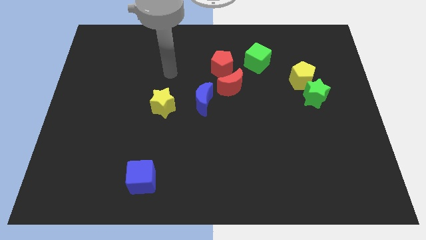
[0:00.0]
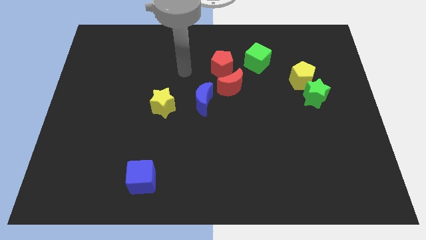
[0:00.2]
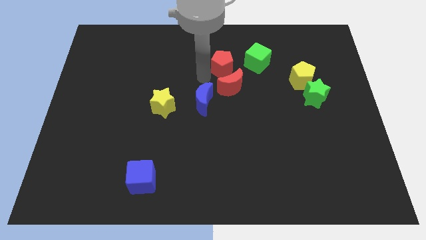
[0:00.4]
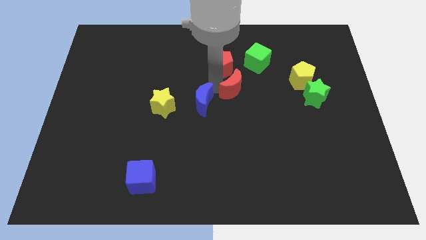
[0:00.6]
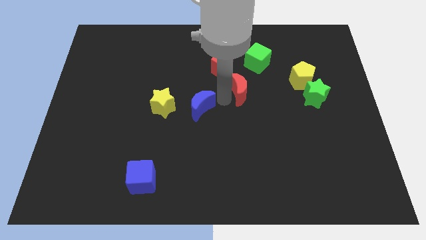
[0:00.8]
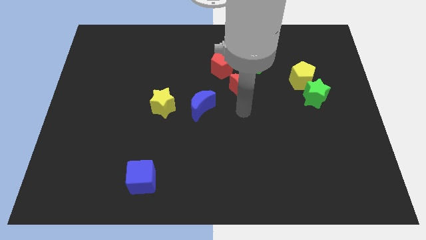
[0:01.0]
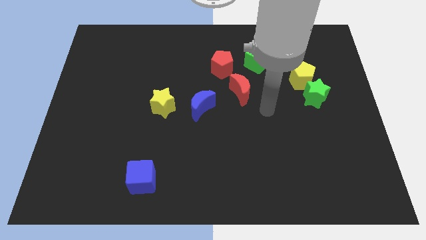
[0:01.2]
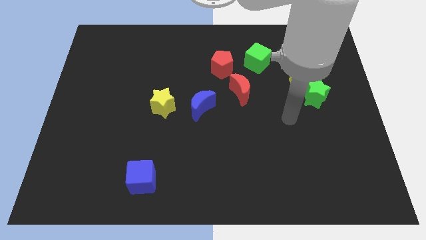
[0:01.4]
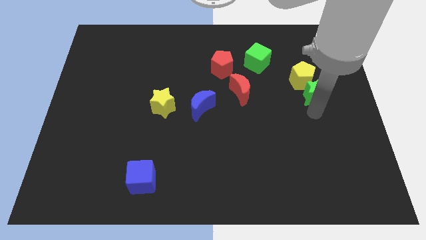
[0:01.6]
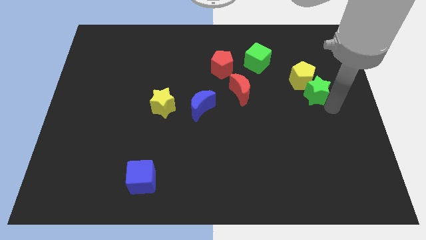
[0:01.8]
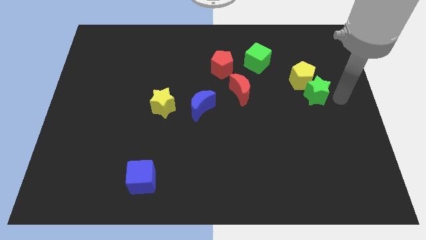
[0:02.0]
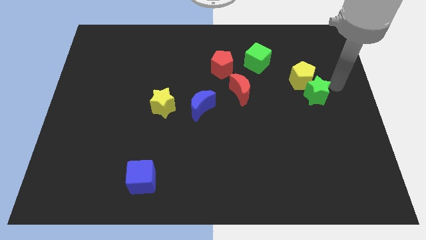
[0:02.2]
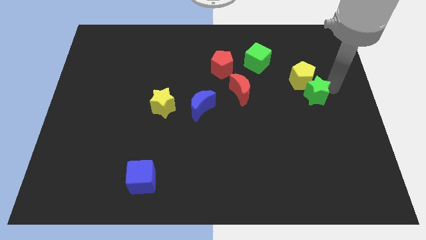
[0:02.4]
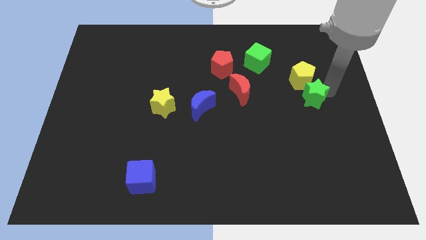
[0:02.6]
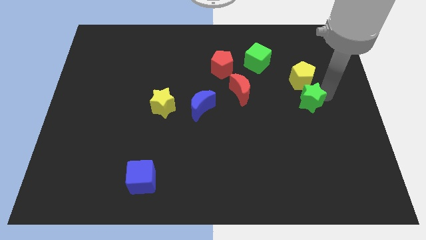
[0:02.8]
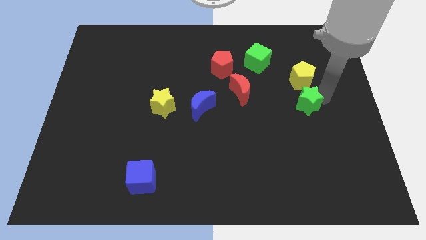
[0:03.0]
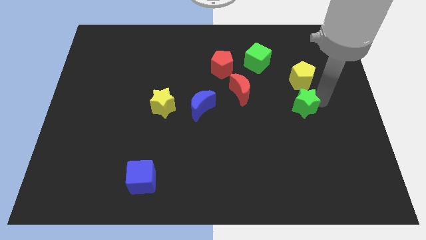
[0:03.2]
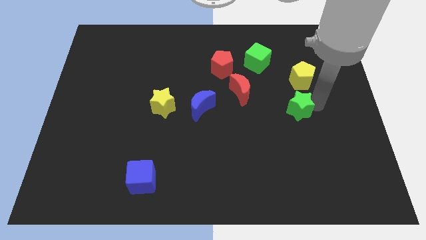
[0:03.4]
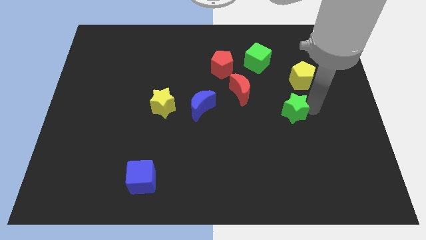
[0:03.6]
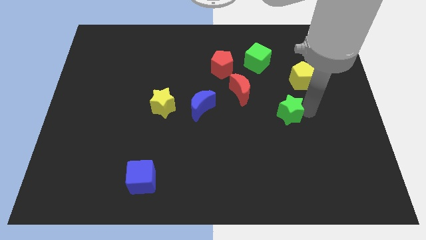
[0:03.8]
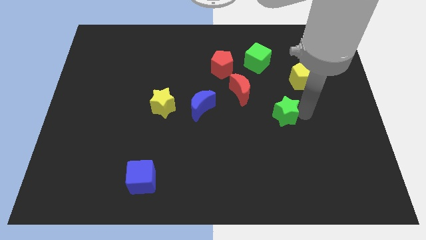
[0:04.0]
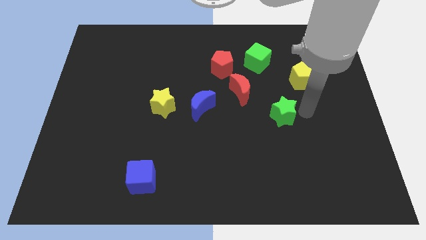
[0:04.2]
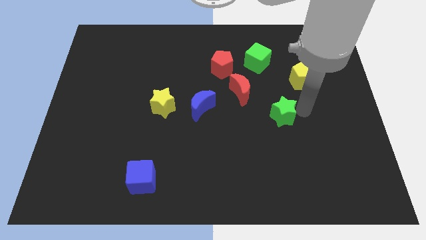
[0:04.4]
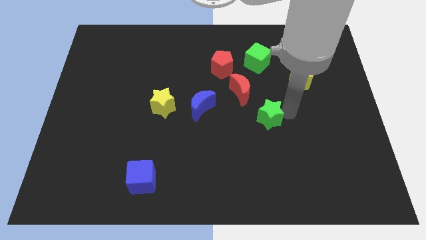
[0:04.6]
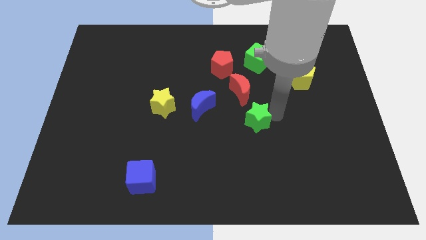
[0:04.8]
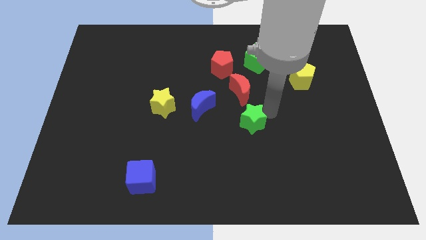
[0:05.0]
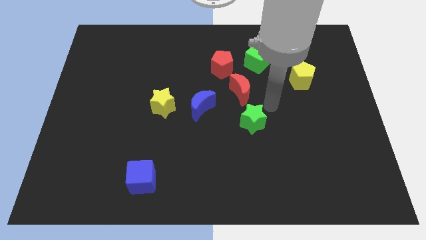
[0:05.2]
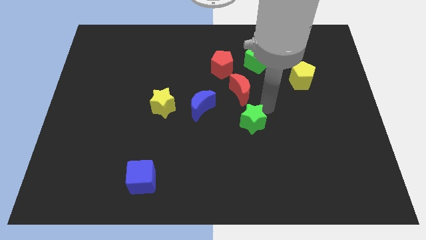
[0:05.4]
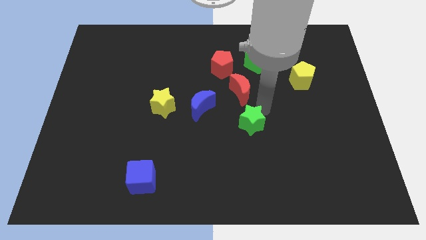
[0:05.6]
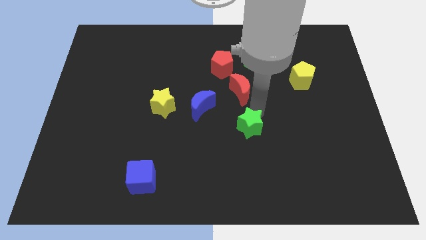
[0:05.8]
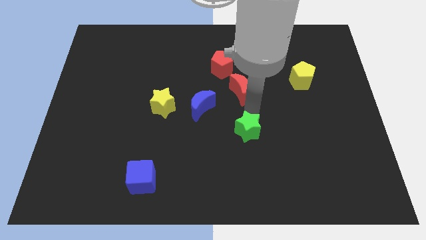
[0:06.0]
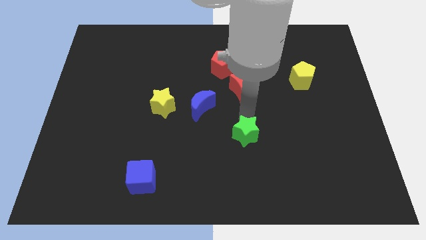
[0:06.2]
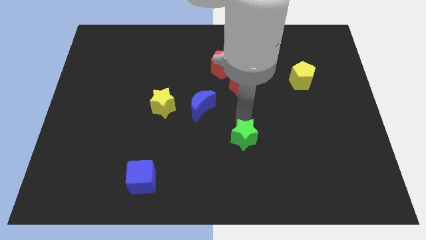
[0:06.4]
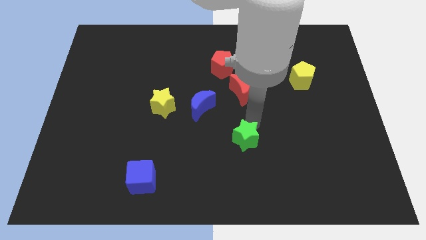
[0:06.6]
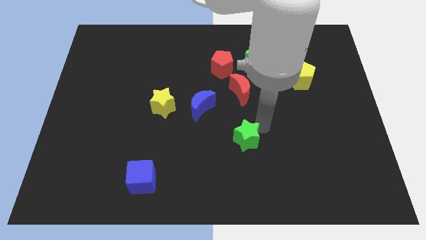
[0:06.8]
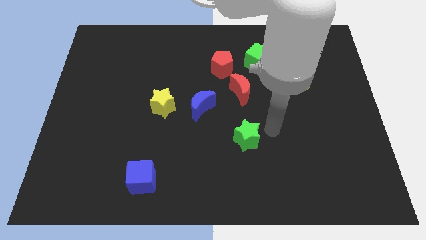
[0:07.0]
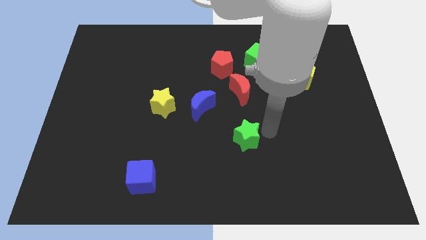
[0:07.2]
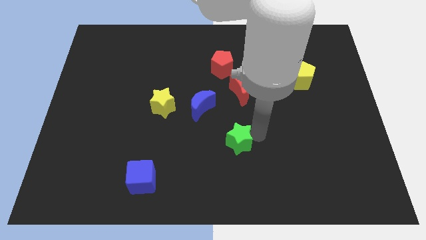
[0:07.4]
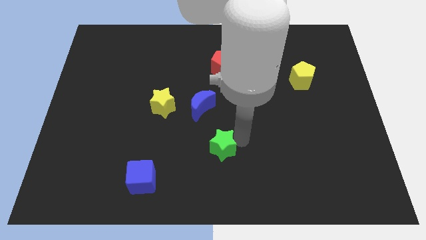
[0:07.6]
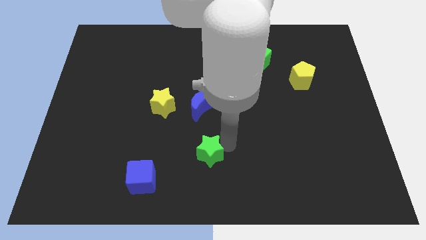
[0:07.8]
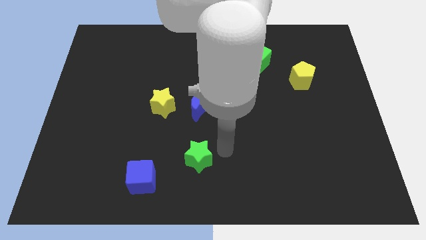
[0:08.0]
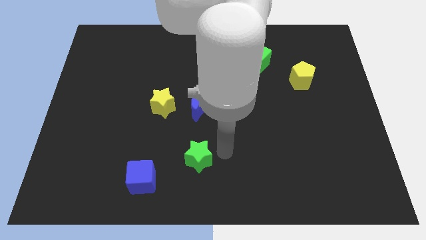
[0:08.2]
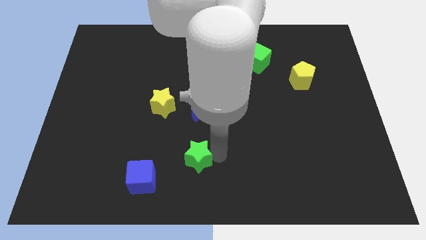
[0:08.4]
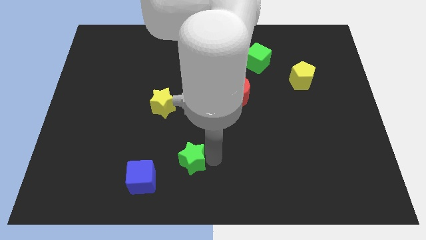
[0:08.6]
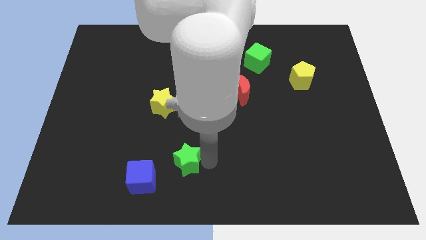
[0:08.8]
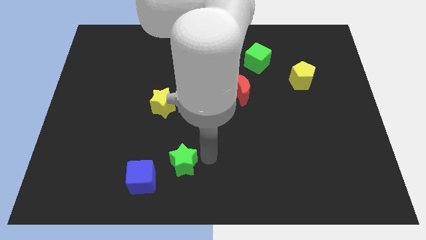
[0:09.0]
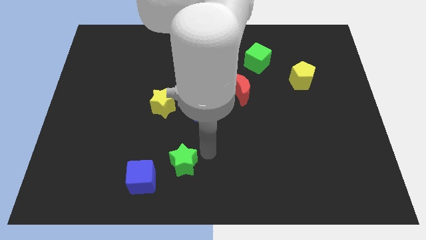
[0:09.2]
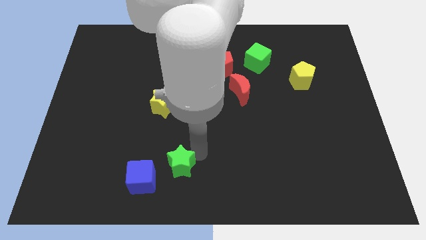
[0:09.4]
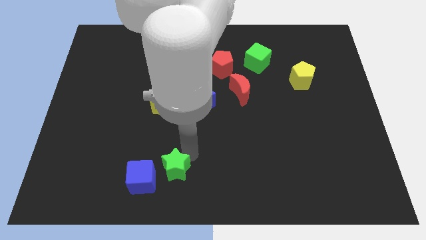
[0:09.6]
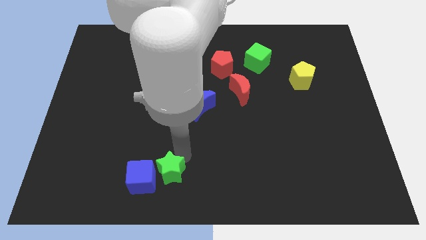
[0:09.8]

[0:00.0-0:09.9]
put the green star towards the blue cube

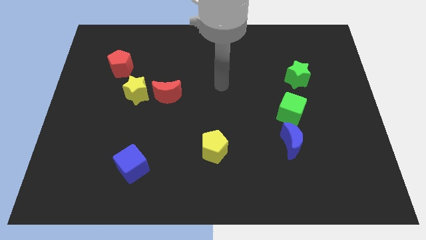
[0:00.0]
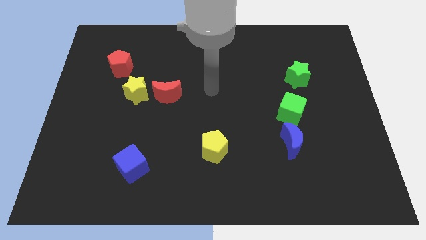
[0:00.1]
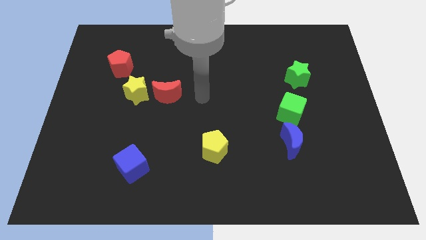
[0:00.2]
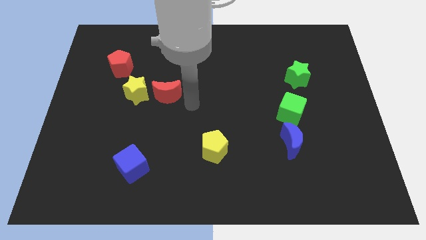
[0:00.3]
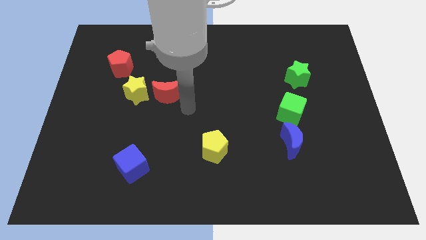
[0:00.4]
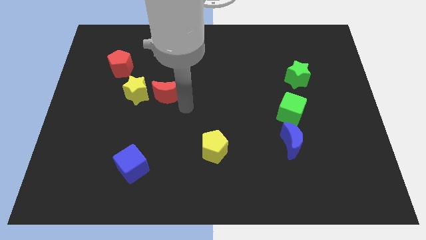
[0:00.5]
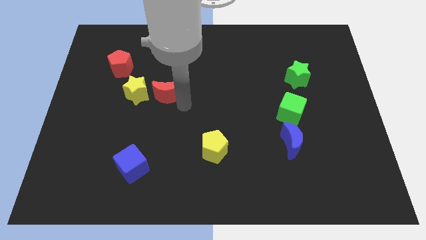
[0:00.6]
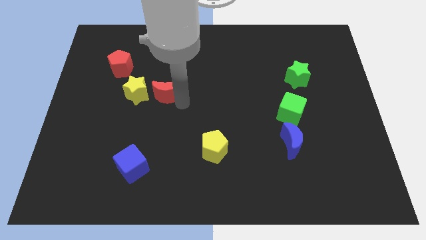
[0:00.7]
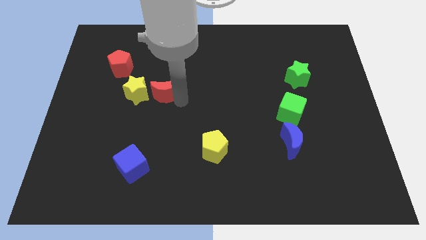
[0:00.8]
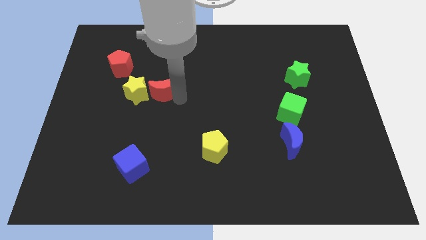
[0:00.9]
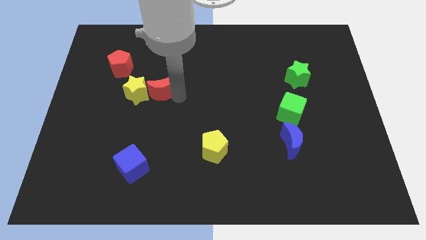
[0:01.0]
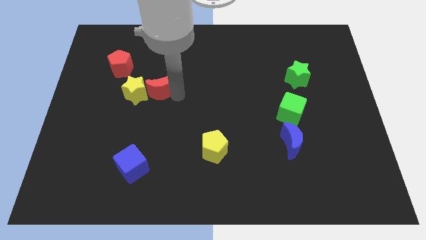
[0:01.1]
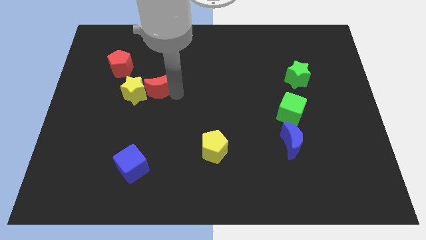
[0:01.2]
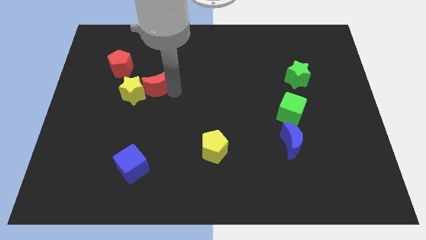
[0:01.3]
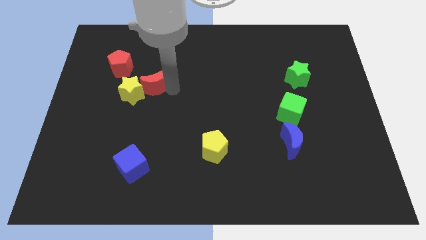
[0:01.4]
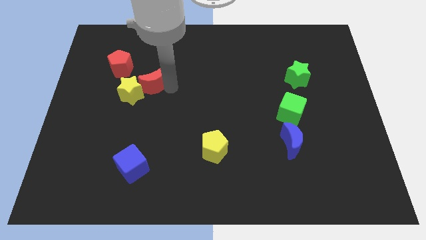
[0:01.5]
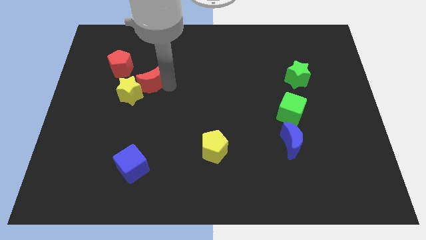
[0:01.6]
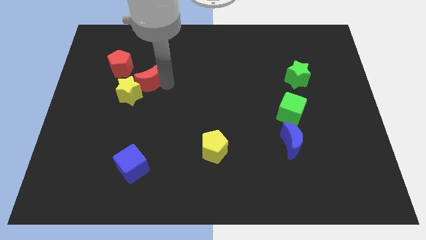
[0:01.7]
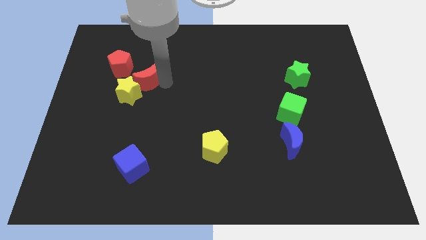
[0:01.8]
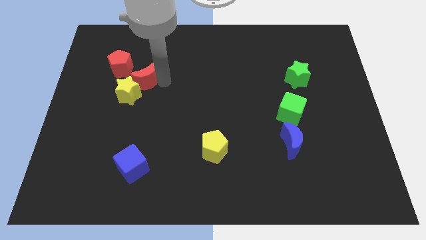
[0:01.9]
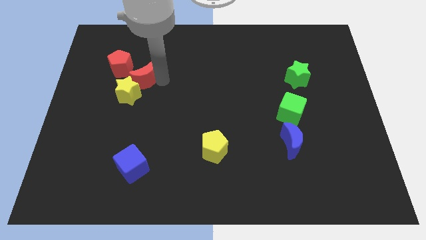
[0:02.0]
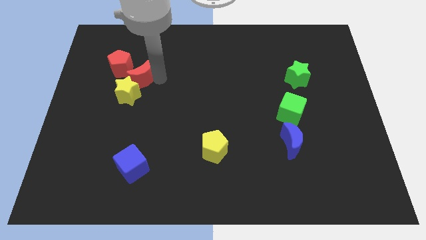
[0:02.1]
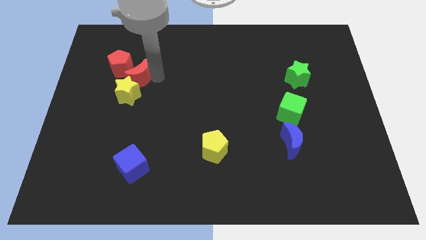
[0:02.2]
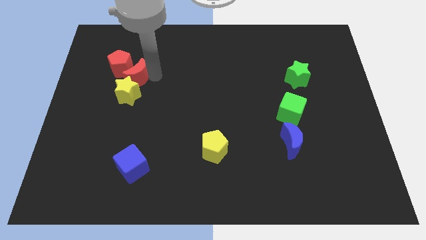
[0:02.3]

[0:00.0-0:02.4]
push the red moon next to the red pentagon

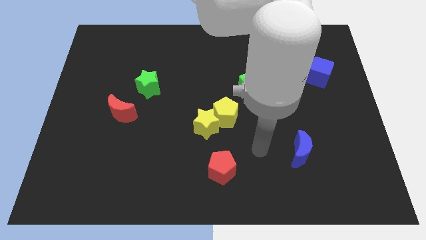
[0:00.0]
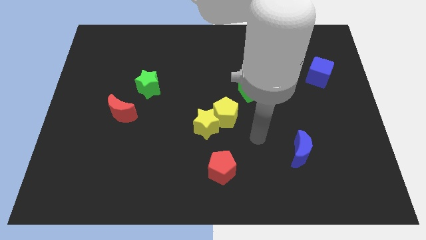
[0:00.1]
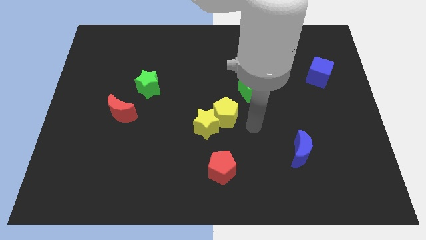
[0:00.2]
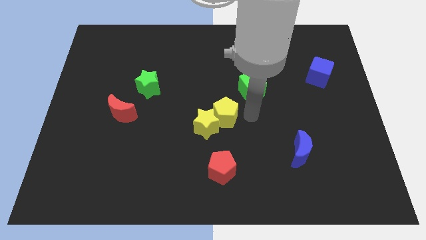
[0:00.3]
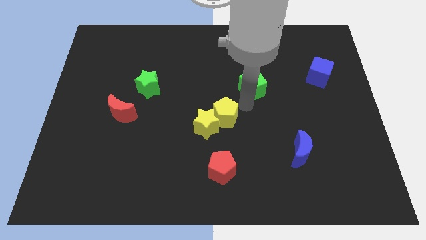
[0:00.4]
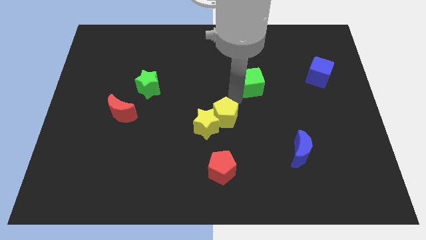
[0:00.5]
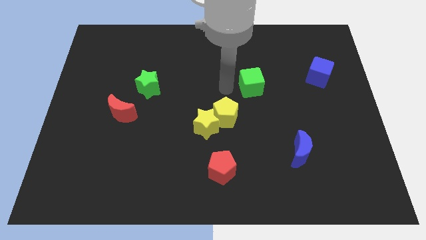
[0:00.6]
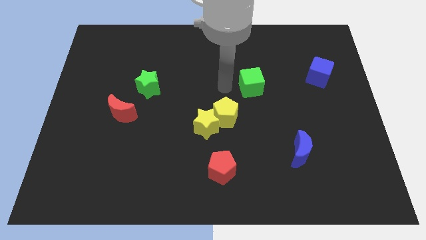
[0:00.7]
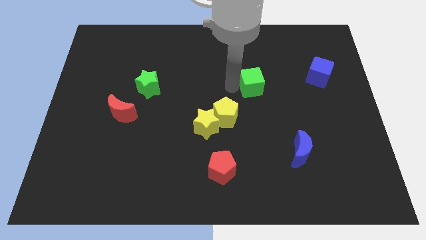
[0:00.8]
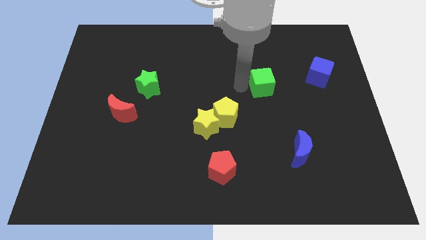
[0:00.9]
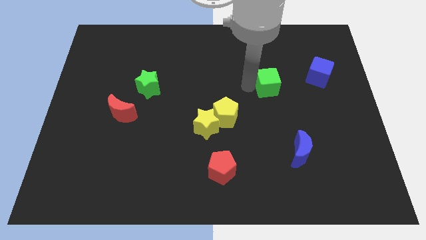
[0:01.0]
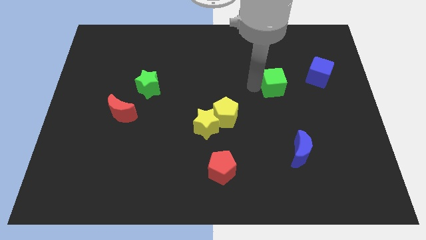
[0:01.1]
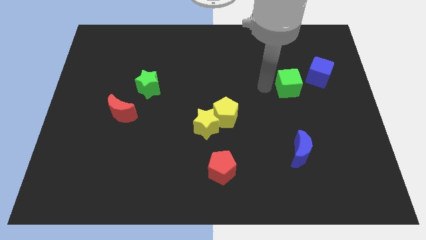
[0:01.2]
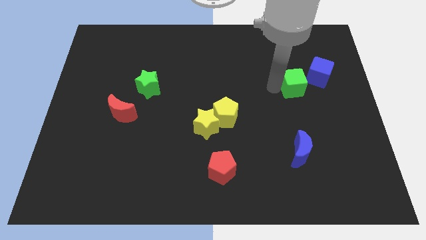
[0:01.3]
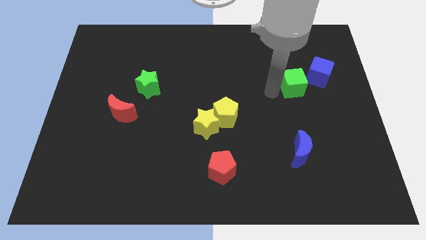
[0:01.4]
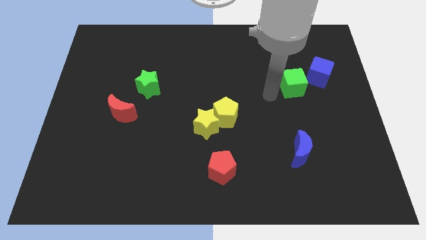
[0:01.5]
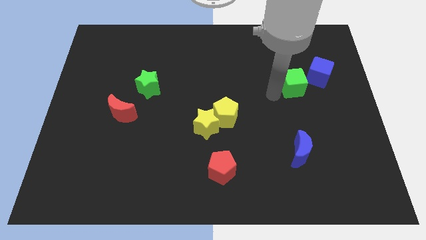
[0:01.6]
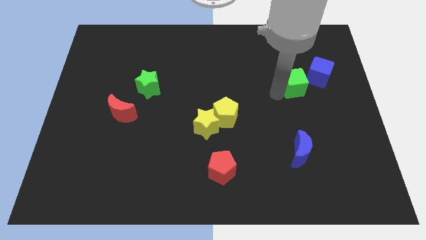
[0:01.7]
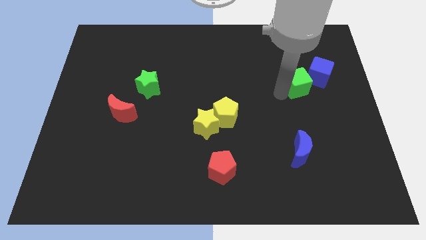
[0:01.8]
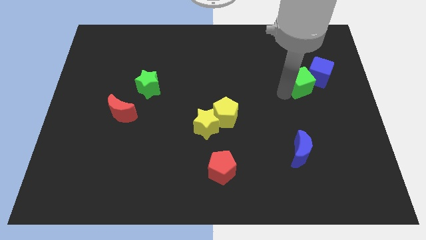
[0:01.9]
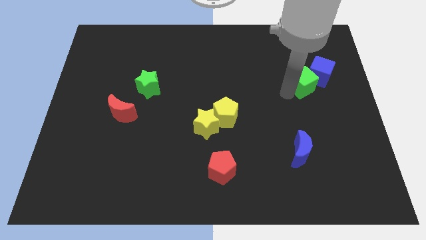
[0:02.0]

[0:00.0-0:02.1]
put the green cube towards the blue cube
